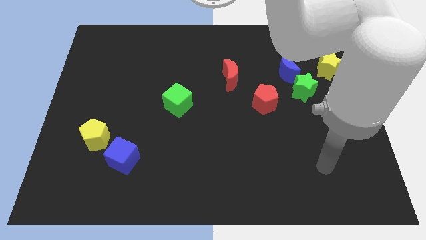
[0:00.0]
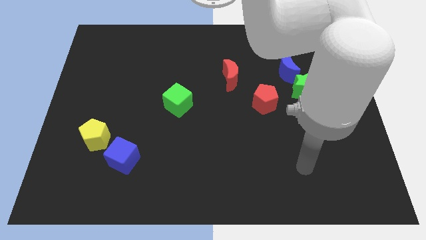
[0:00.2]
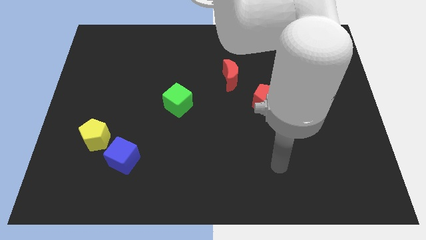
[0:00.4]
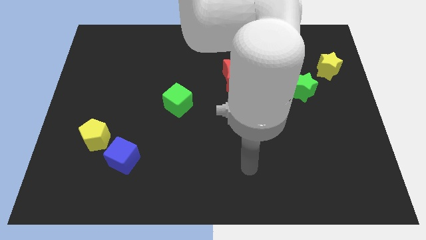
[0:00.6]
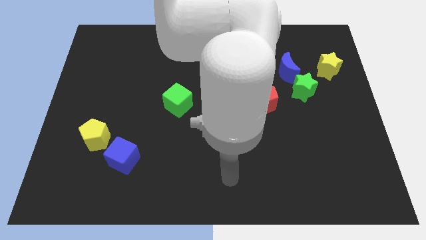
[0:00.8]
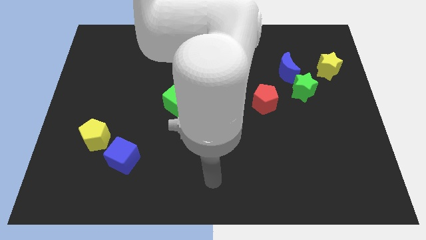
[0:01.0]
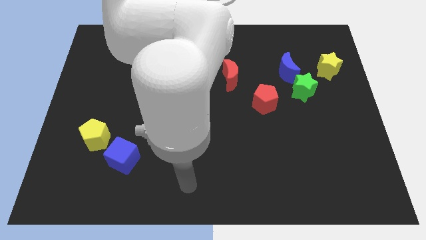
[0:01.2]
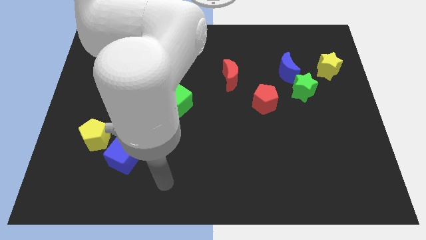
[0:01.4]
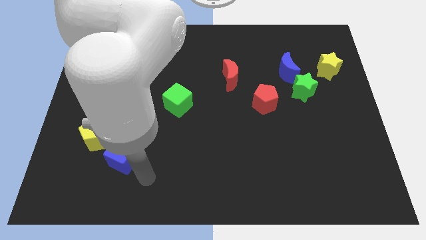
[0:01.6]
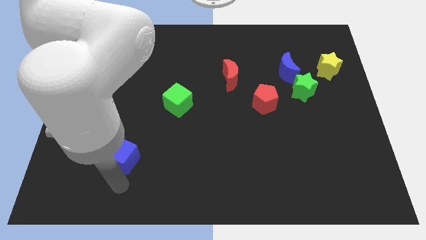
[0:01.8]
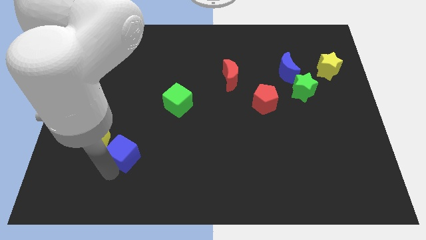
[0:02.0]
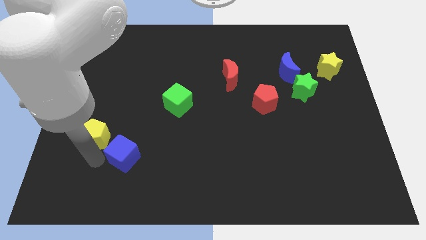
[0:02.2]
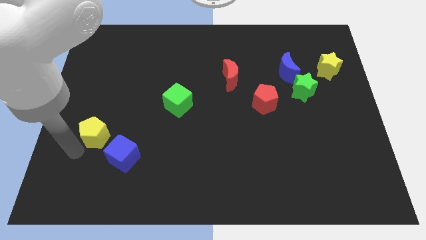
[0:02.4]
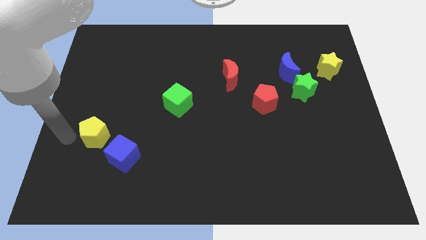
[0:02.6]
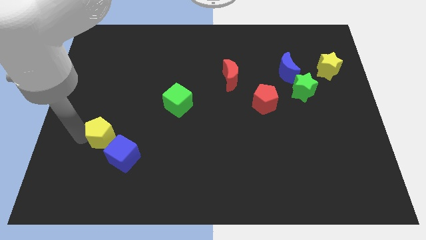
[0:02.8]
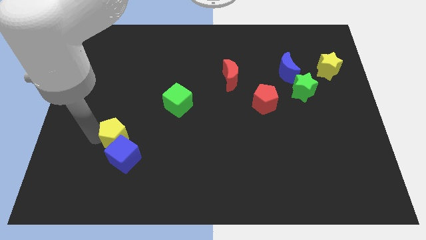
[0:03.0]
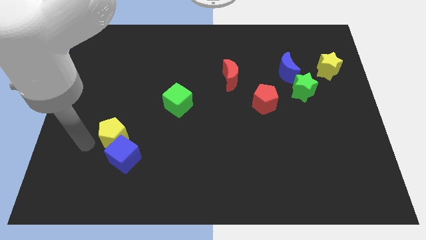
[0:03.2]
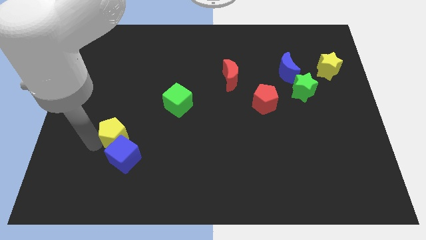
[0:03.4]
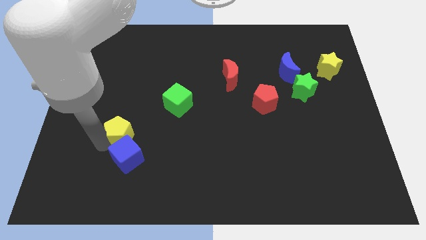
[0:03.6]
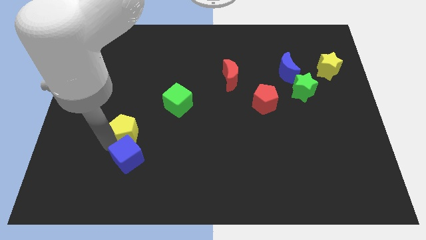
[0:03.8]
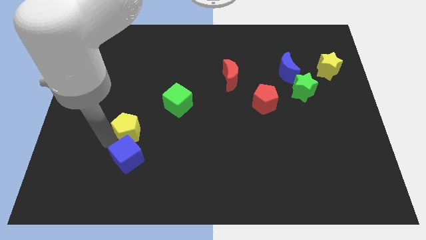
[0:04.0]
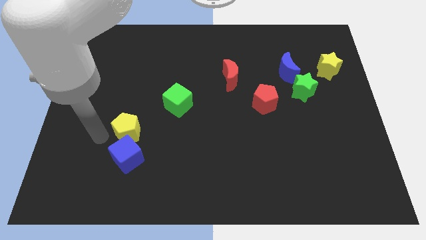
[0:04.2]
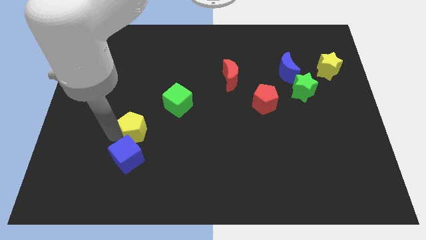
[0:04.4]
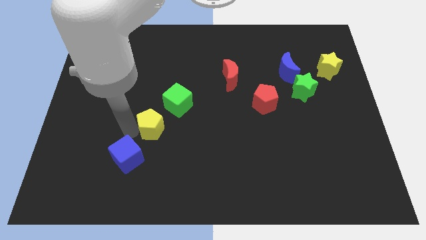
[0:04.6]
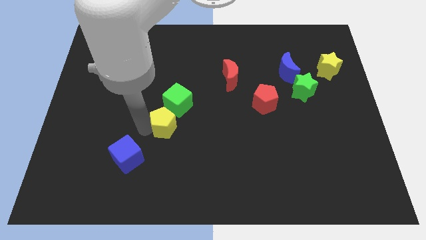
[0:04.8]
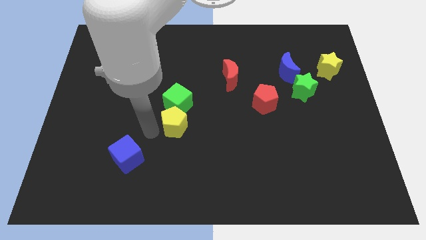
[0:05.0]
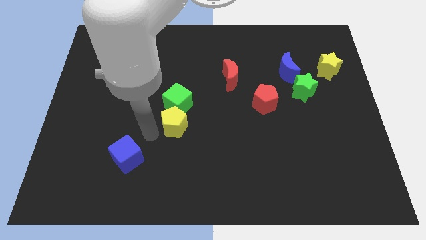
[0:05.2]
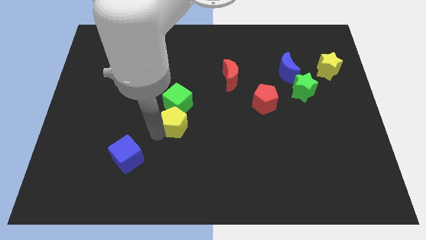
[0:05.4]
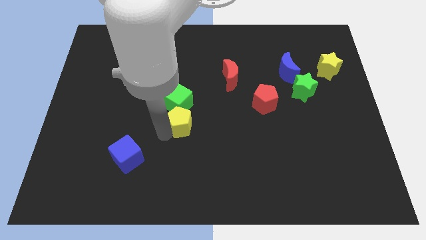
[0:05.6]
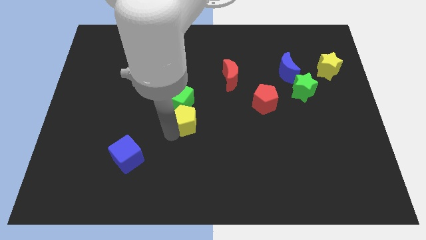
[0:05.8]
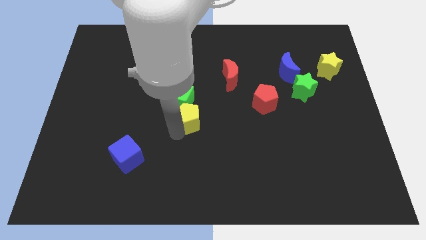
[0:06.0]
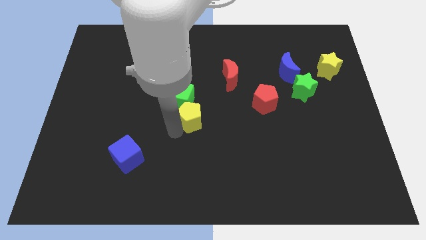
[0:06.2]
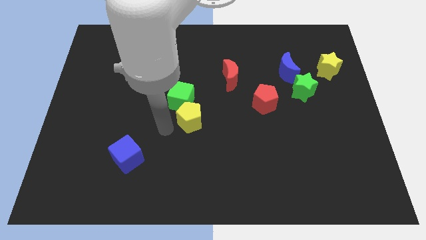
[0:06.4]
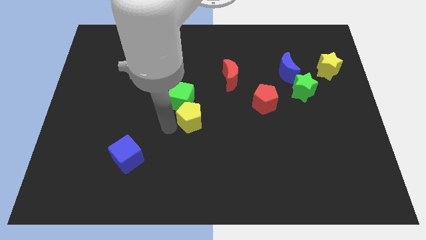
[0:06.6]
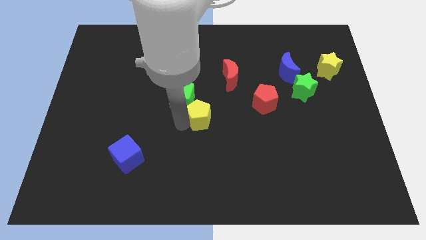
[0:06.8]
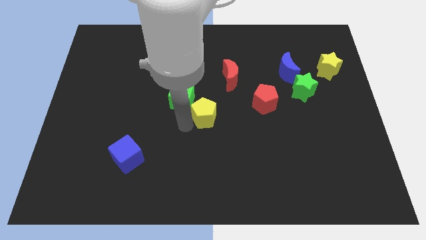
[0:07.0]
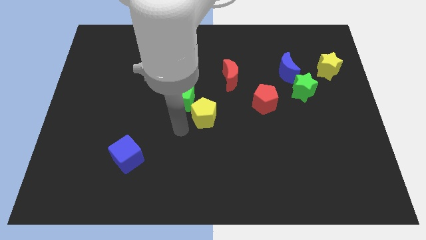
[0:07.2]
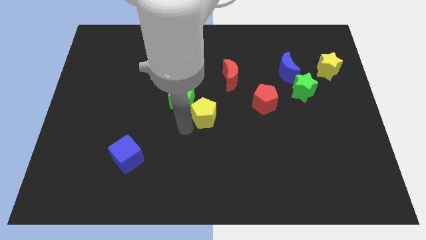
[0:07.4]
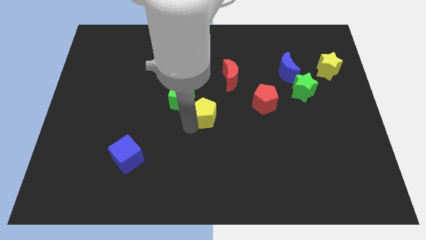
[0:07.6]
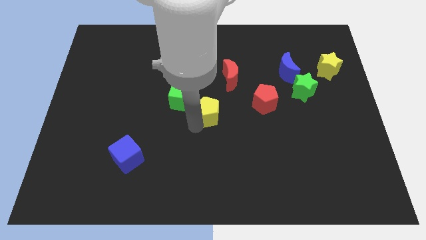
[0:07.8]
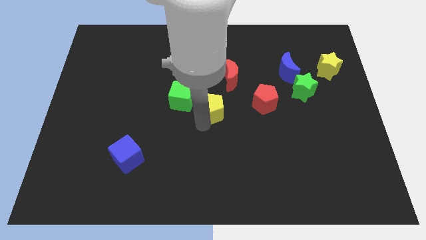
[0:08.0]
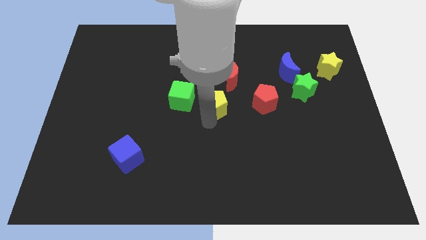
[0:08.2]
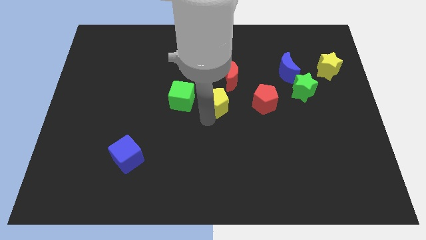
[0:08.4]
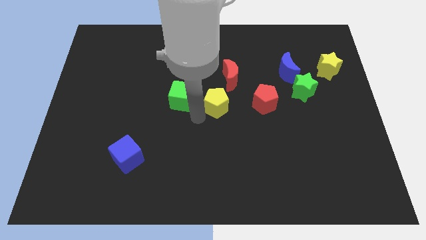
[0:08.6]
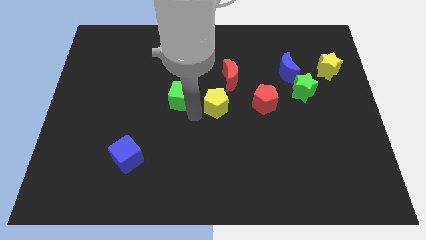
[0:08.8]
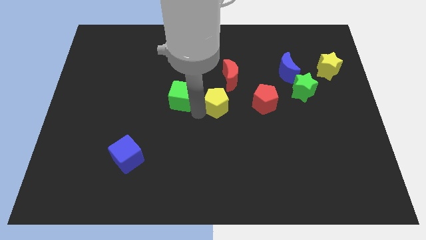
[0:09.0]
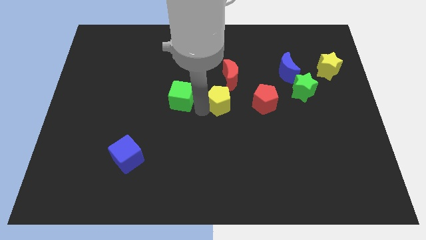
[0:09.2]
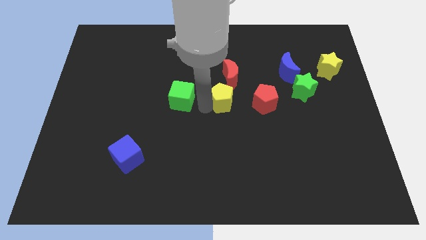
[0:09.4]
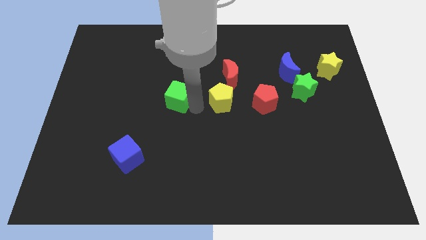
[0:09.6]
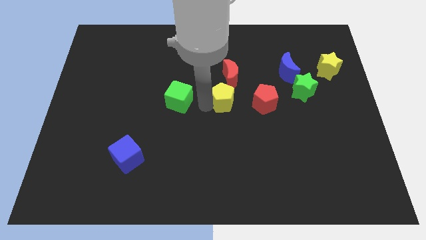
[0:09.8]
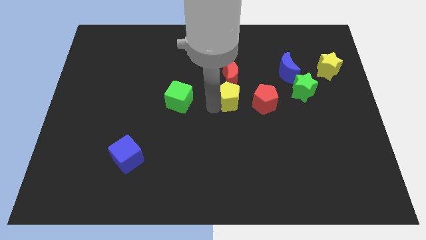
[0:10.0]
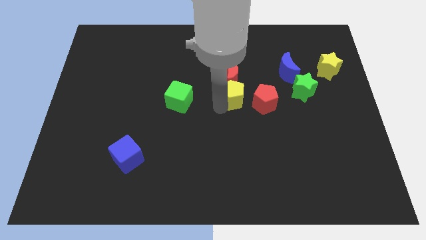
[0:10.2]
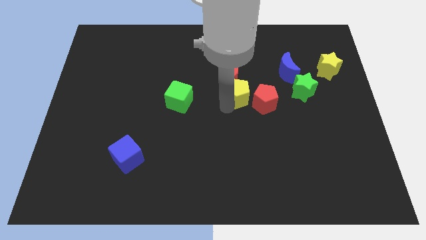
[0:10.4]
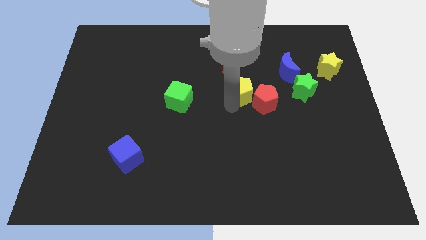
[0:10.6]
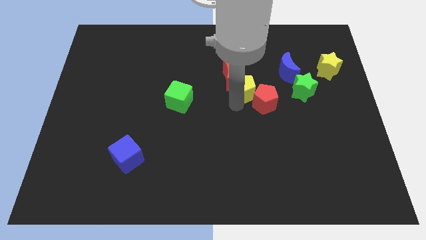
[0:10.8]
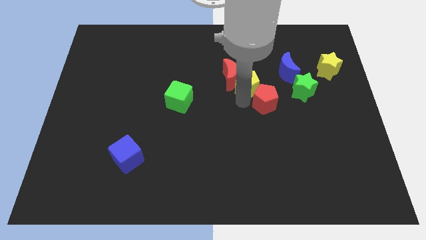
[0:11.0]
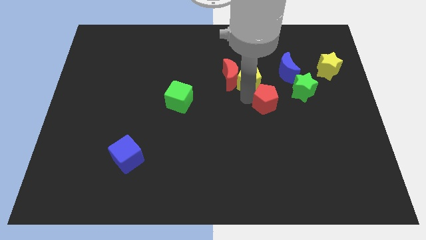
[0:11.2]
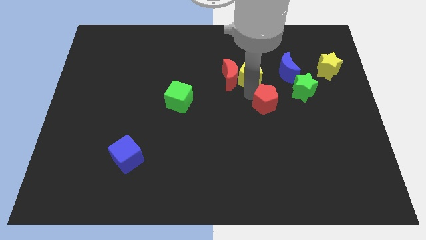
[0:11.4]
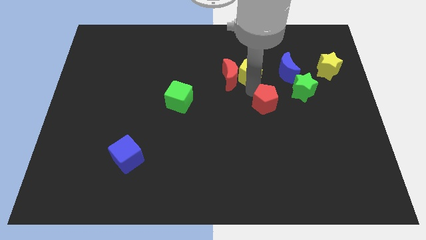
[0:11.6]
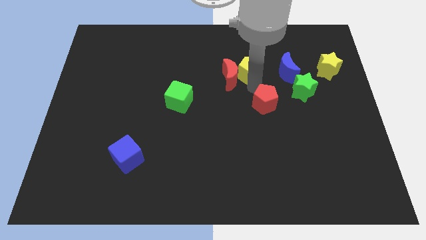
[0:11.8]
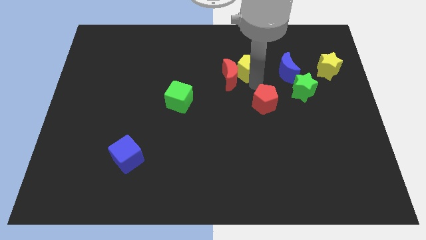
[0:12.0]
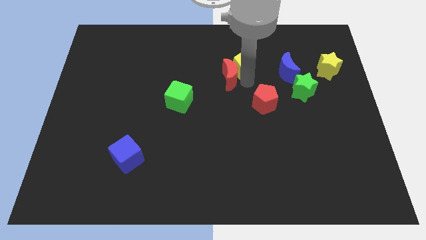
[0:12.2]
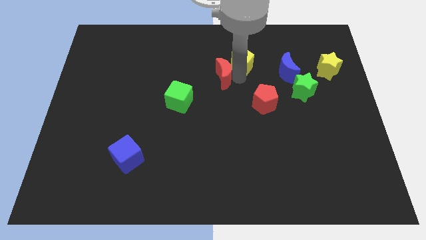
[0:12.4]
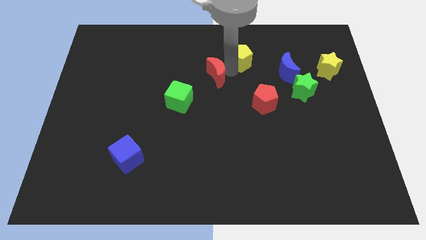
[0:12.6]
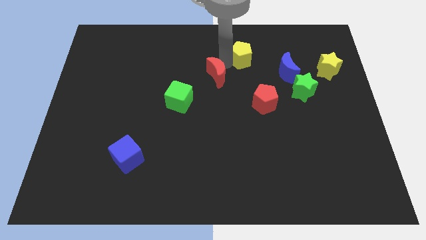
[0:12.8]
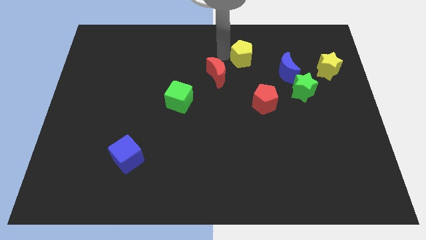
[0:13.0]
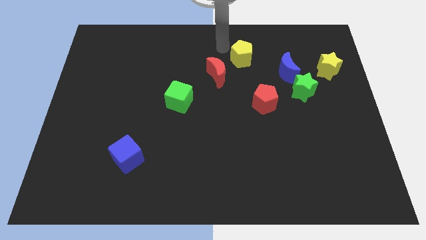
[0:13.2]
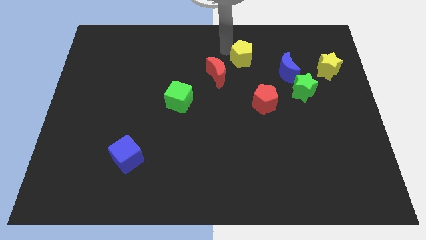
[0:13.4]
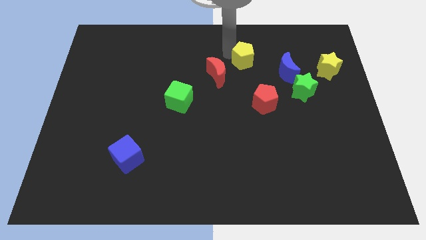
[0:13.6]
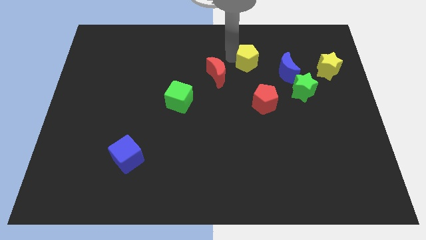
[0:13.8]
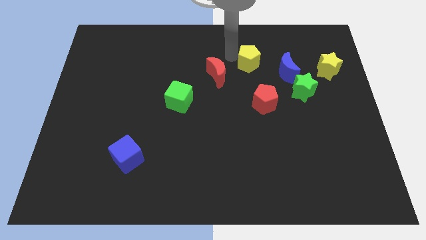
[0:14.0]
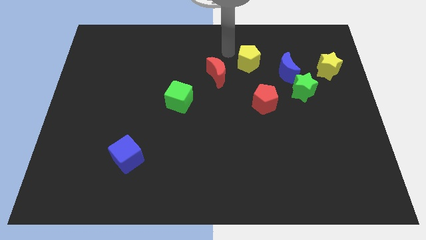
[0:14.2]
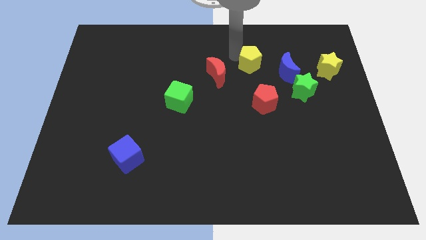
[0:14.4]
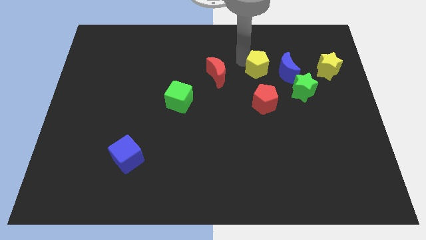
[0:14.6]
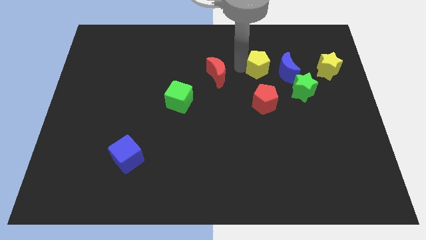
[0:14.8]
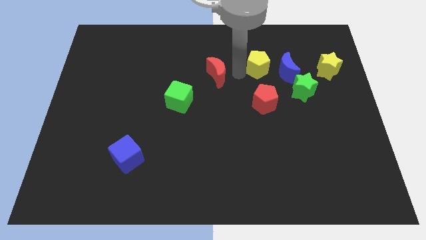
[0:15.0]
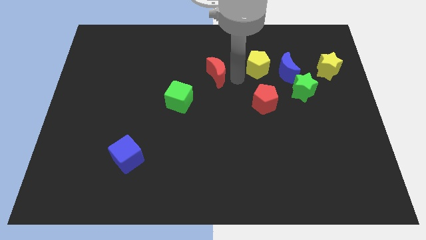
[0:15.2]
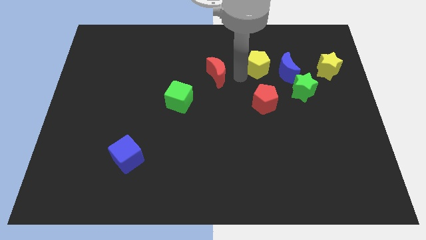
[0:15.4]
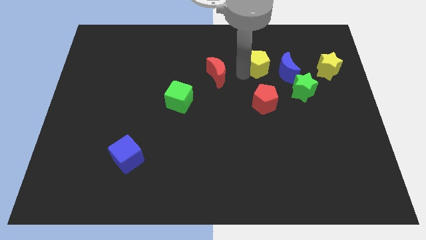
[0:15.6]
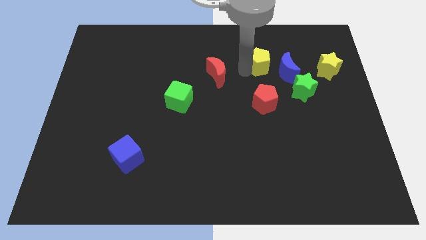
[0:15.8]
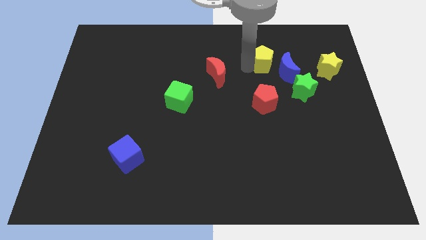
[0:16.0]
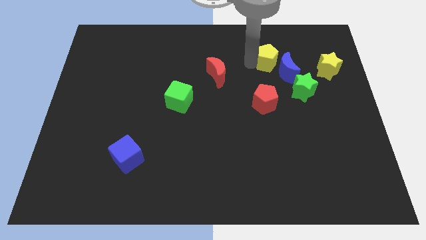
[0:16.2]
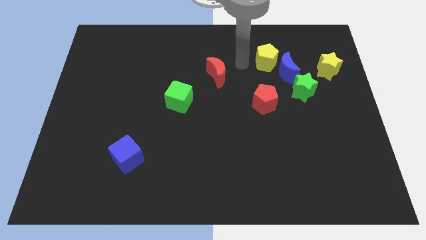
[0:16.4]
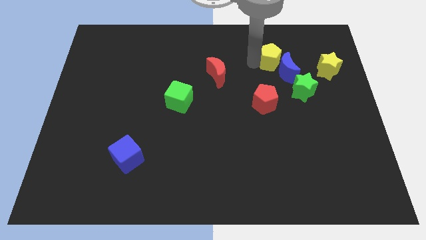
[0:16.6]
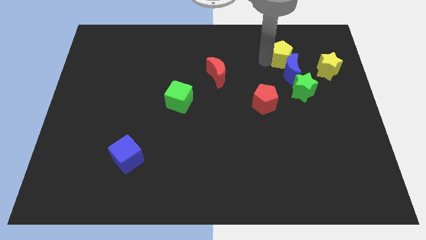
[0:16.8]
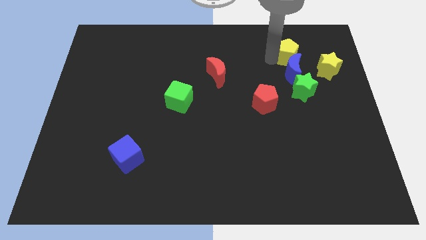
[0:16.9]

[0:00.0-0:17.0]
move the yellow pentagon diagonally up and to the right of the blue moon
